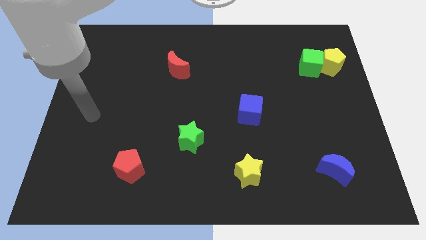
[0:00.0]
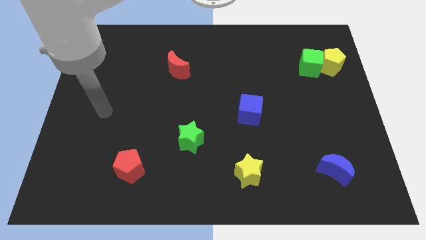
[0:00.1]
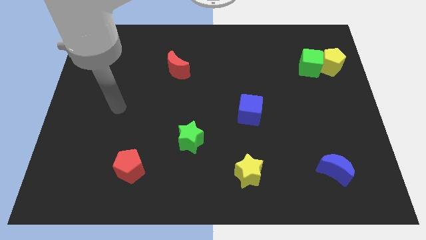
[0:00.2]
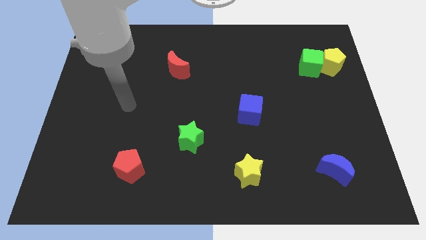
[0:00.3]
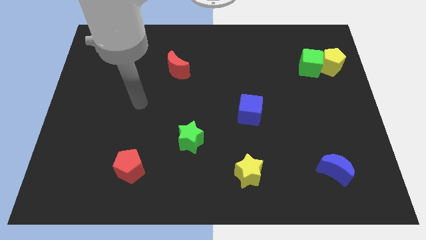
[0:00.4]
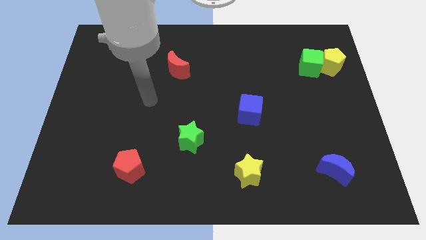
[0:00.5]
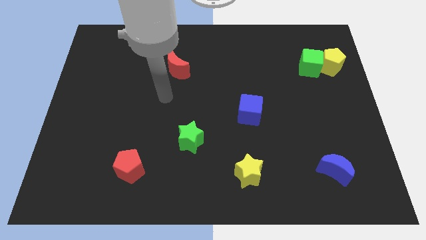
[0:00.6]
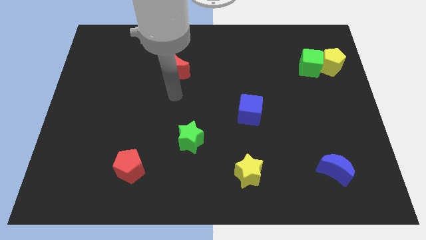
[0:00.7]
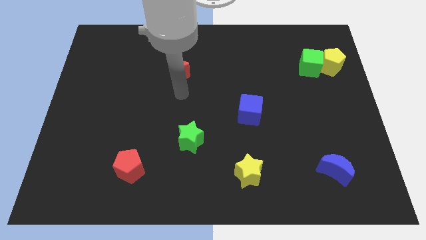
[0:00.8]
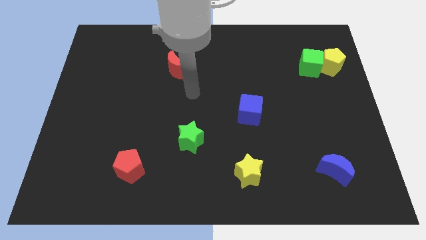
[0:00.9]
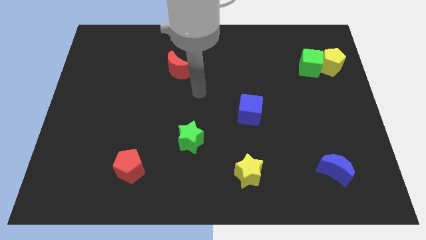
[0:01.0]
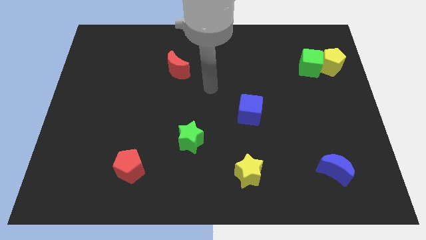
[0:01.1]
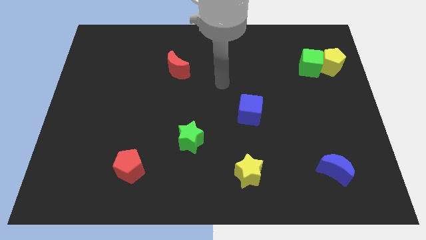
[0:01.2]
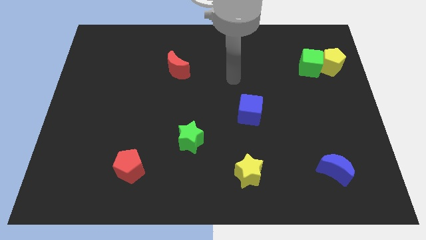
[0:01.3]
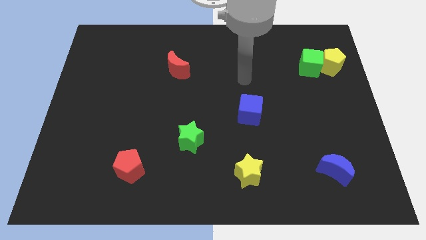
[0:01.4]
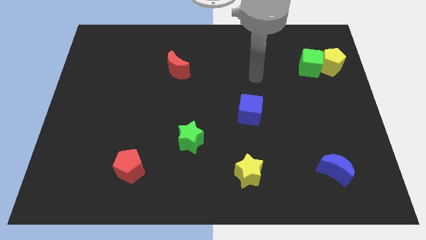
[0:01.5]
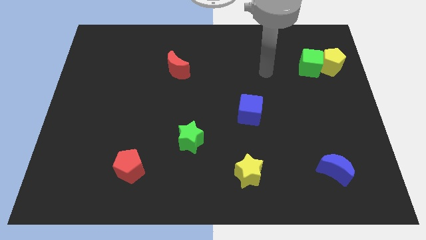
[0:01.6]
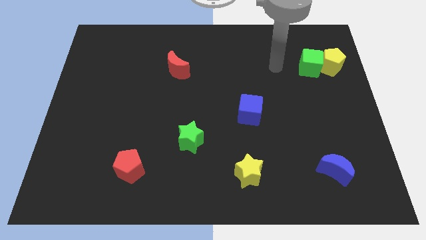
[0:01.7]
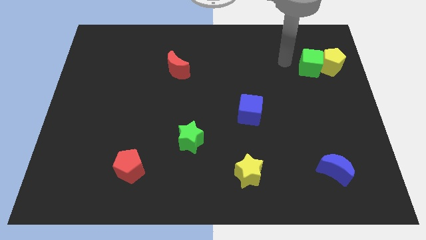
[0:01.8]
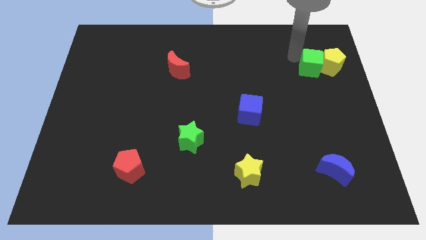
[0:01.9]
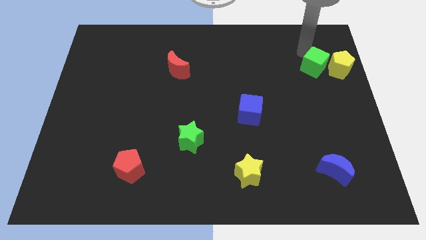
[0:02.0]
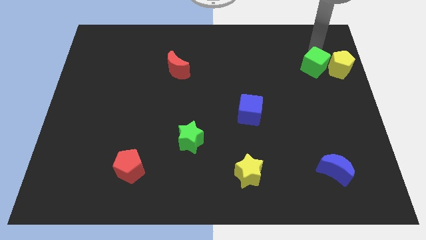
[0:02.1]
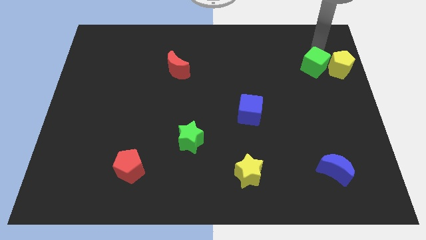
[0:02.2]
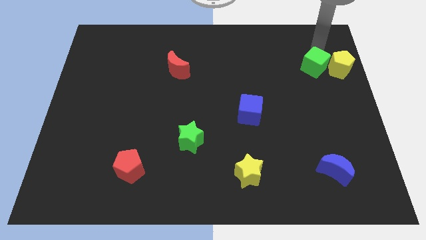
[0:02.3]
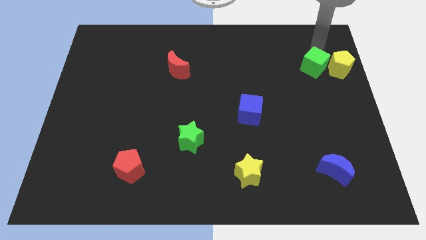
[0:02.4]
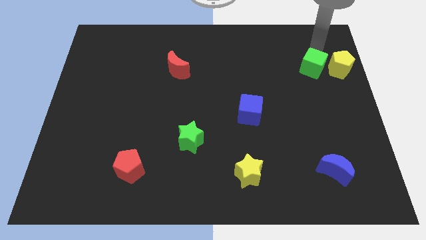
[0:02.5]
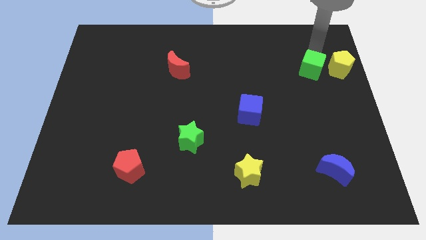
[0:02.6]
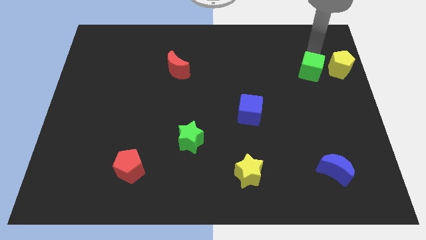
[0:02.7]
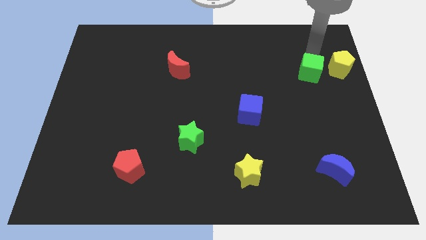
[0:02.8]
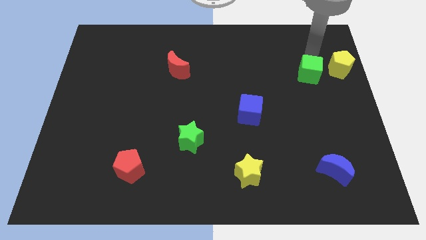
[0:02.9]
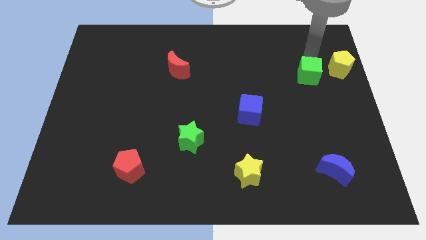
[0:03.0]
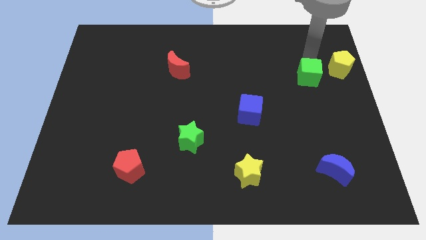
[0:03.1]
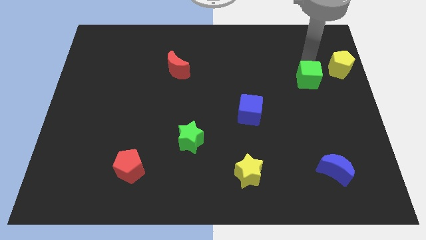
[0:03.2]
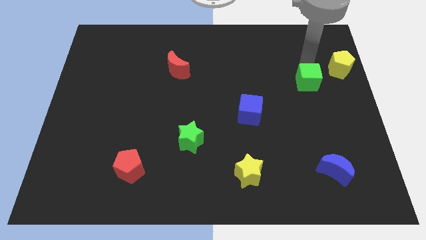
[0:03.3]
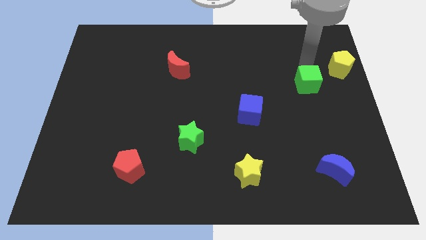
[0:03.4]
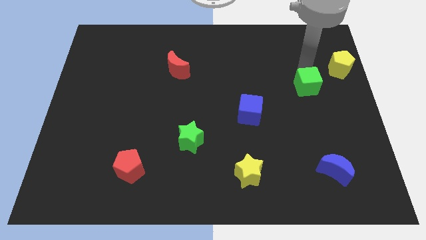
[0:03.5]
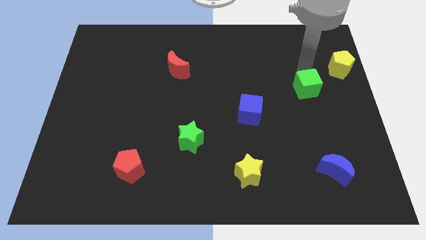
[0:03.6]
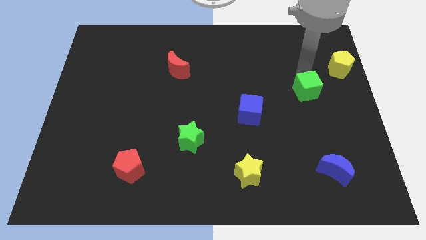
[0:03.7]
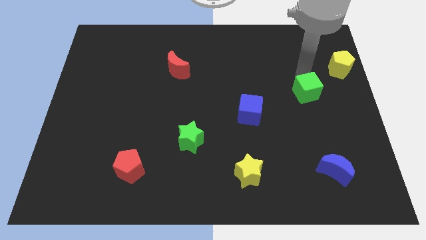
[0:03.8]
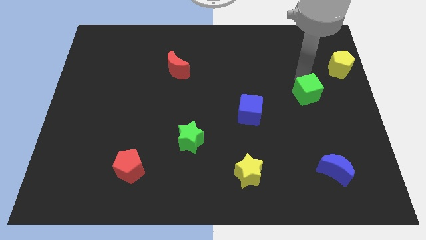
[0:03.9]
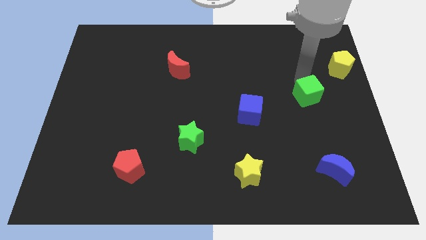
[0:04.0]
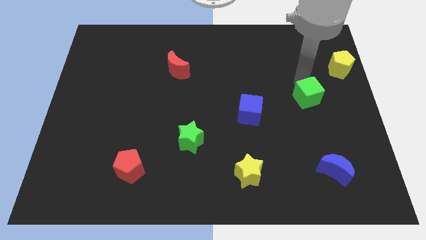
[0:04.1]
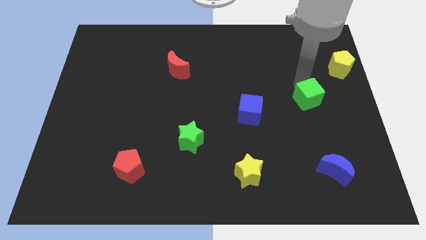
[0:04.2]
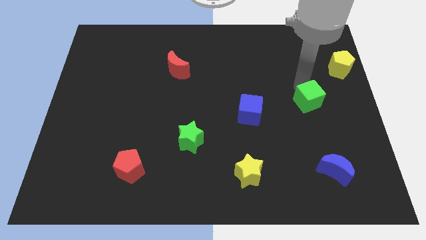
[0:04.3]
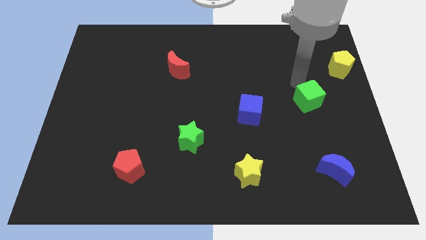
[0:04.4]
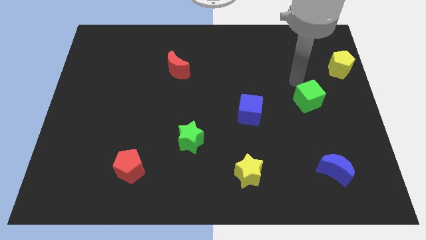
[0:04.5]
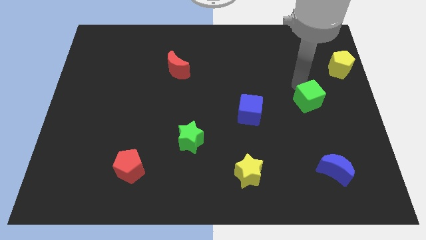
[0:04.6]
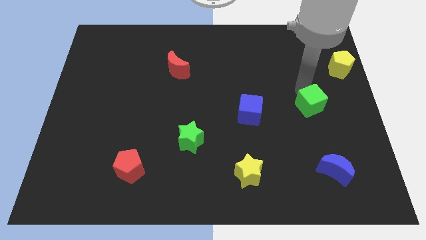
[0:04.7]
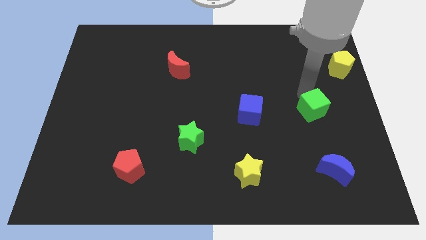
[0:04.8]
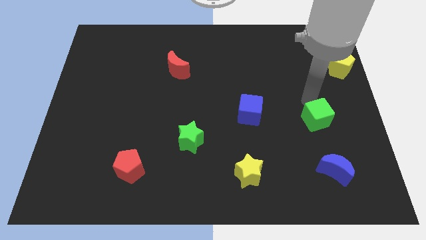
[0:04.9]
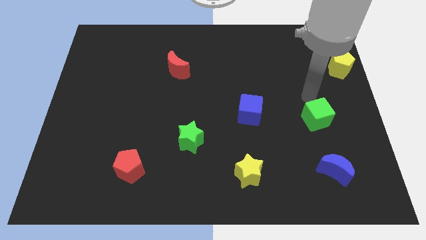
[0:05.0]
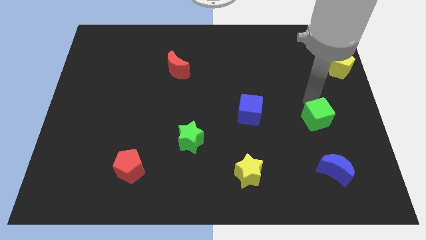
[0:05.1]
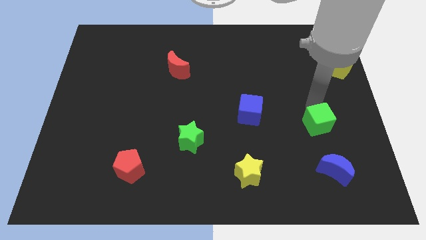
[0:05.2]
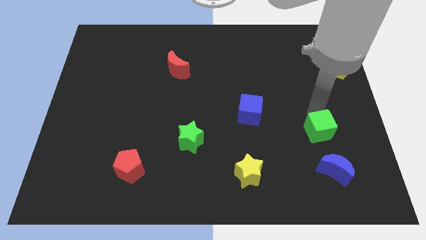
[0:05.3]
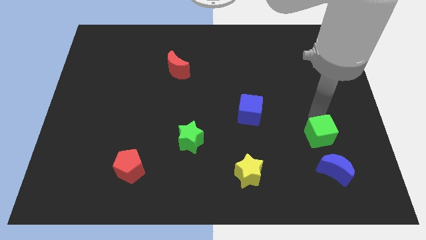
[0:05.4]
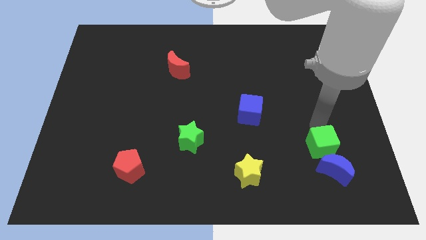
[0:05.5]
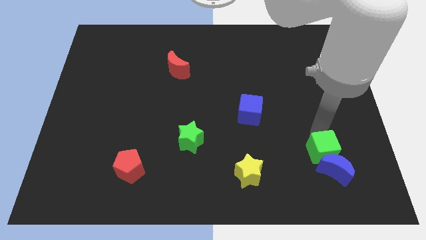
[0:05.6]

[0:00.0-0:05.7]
slide the green cube to the blue moon

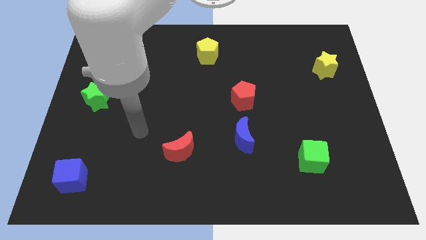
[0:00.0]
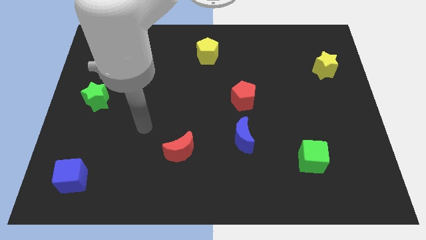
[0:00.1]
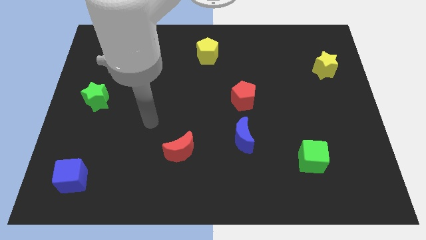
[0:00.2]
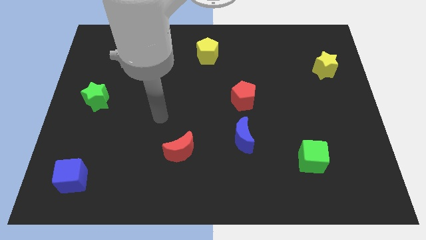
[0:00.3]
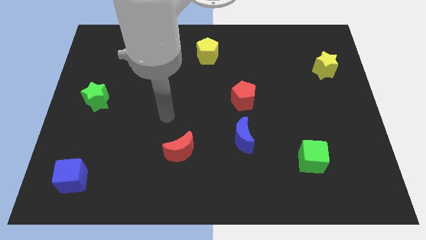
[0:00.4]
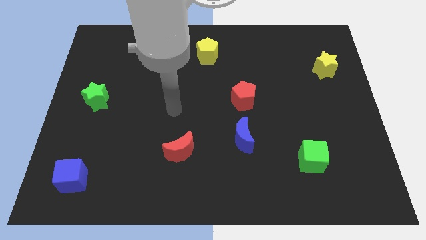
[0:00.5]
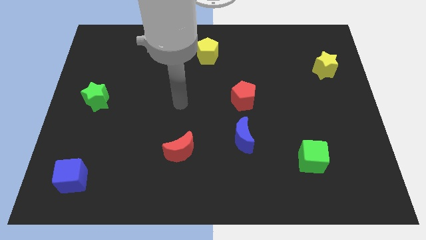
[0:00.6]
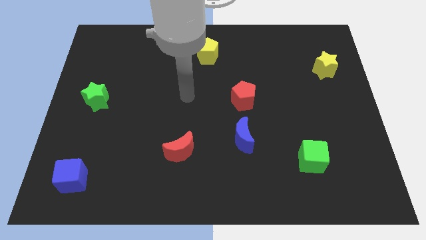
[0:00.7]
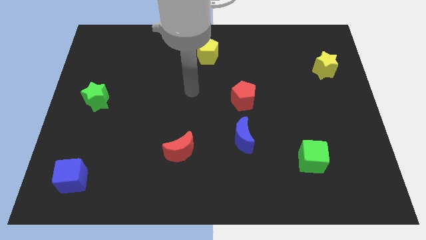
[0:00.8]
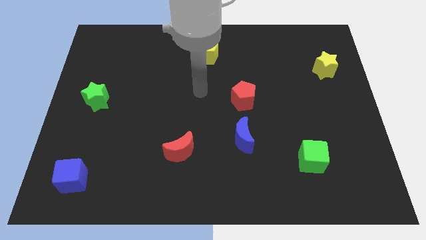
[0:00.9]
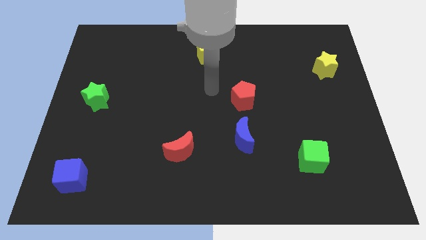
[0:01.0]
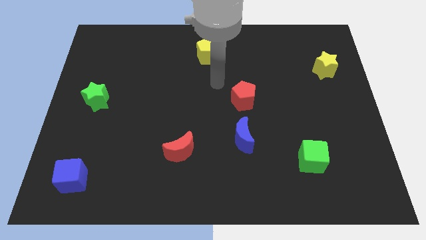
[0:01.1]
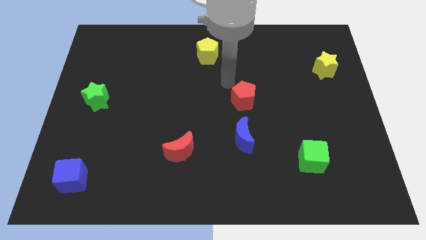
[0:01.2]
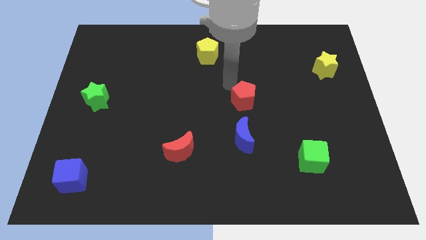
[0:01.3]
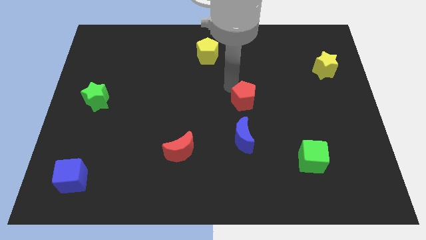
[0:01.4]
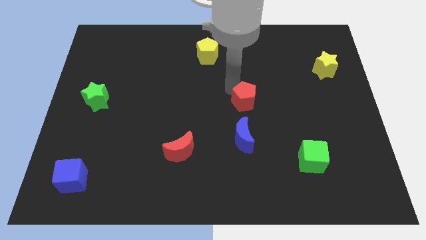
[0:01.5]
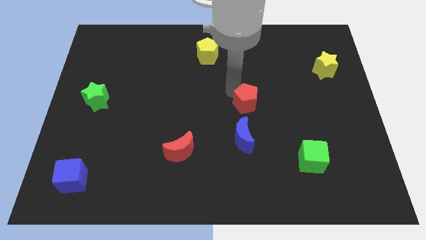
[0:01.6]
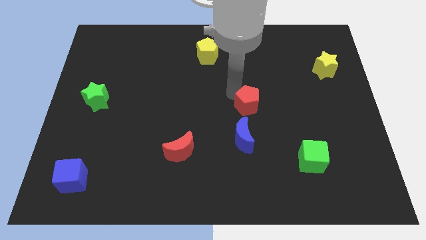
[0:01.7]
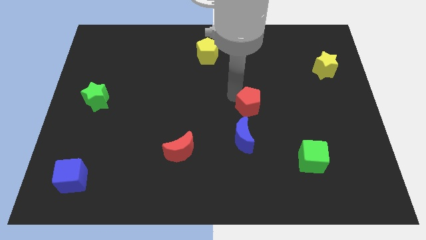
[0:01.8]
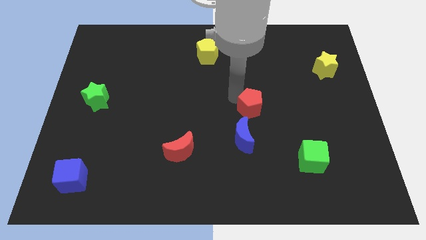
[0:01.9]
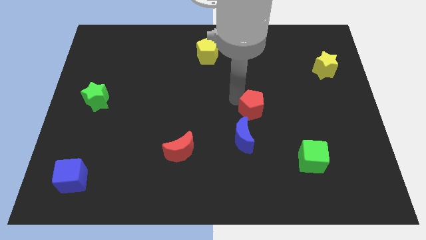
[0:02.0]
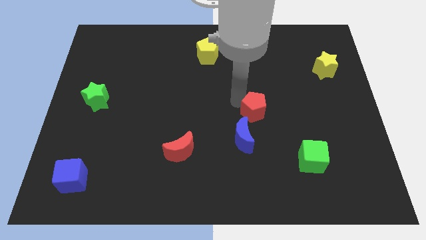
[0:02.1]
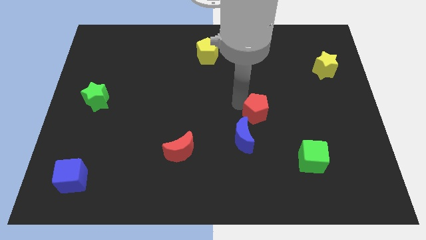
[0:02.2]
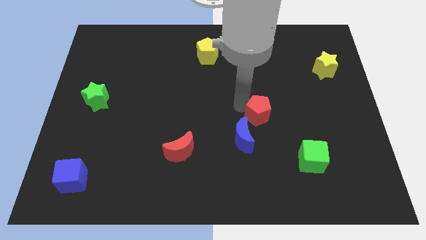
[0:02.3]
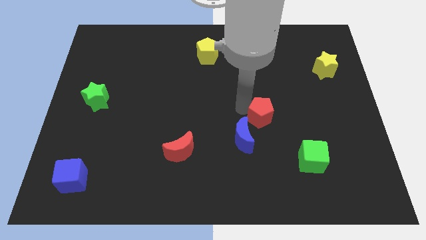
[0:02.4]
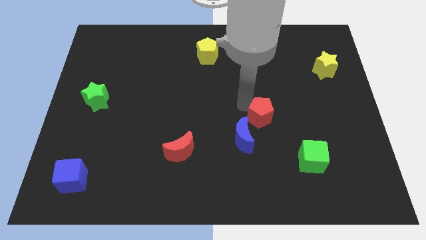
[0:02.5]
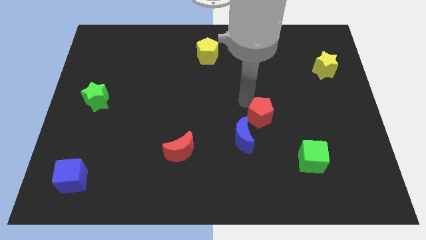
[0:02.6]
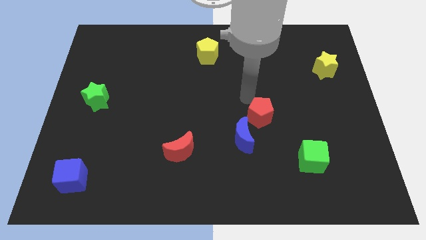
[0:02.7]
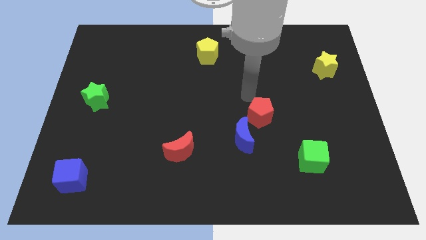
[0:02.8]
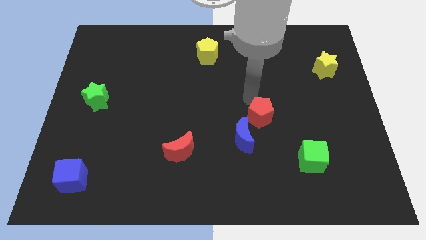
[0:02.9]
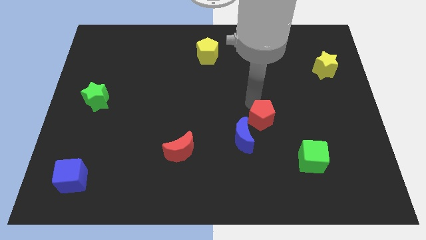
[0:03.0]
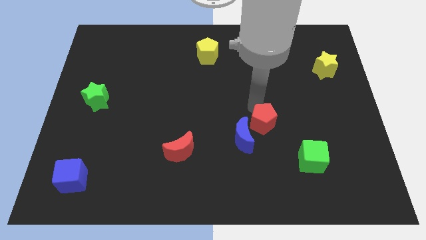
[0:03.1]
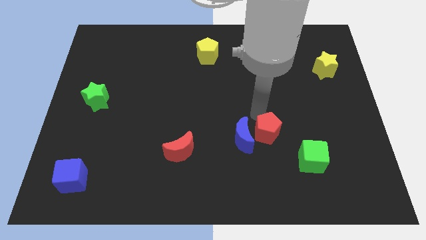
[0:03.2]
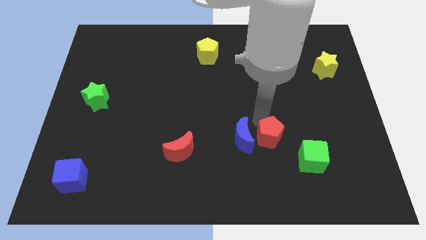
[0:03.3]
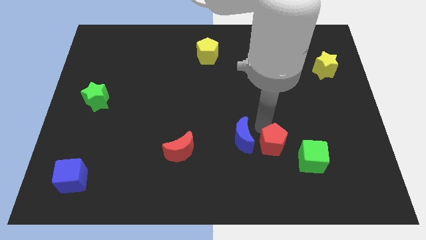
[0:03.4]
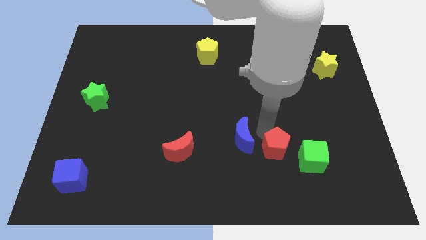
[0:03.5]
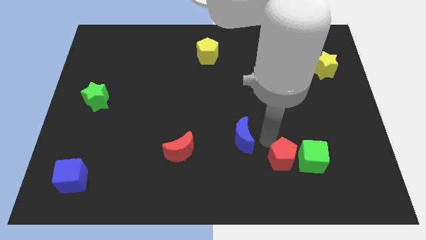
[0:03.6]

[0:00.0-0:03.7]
move the red pentagon to the green cube
